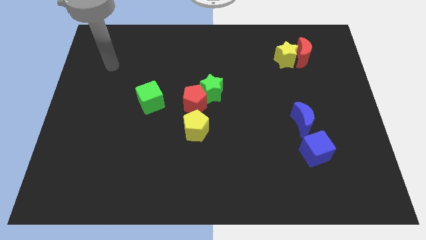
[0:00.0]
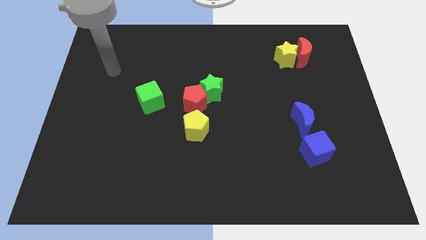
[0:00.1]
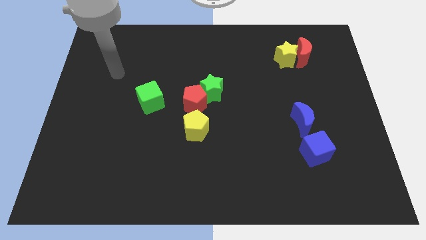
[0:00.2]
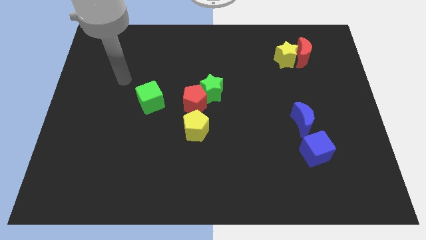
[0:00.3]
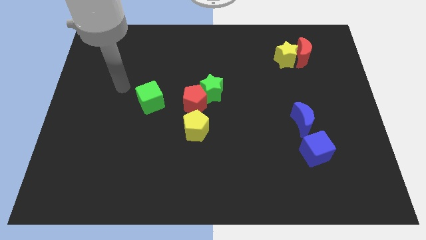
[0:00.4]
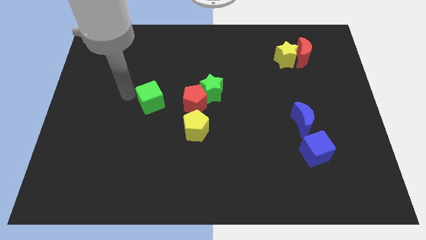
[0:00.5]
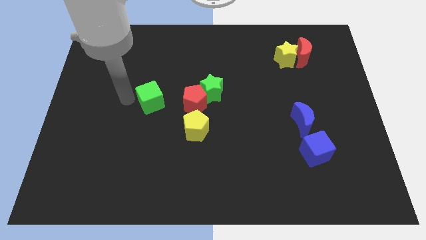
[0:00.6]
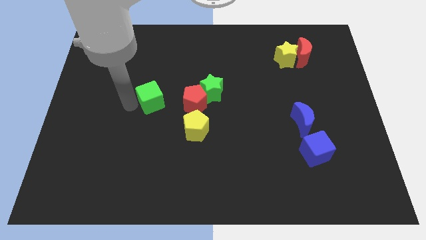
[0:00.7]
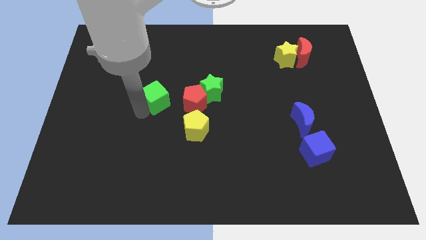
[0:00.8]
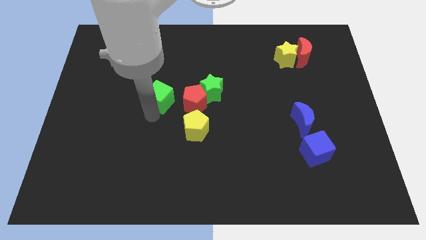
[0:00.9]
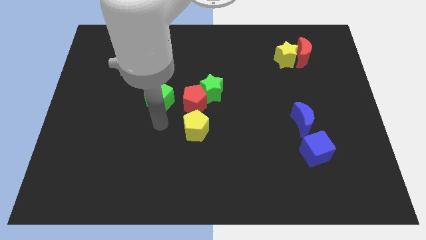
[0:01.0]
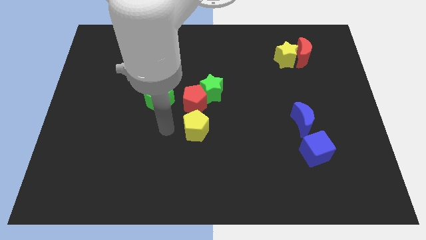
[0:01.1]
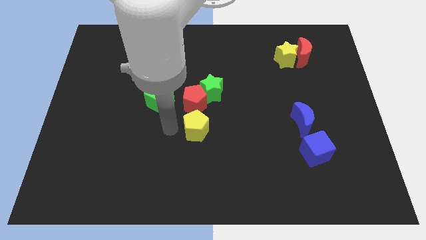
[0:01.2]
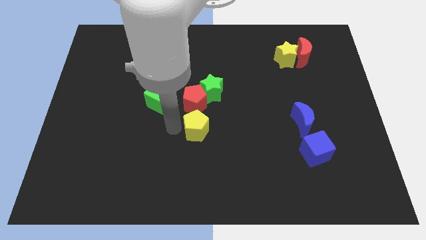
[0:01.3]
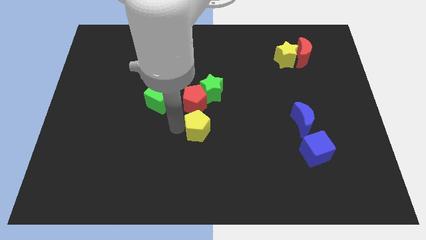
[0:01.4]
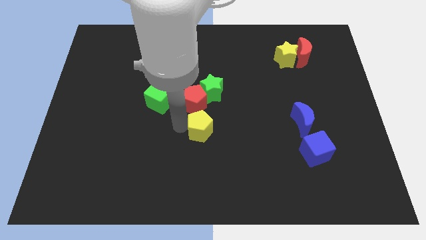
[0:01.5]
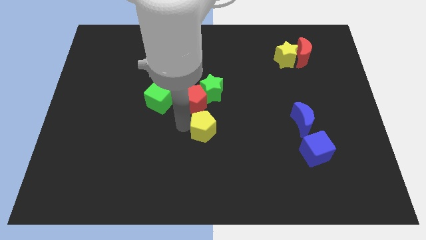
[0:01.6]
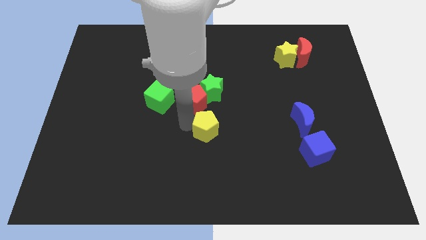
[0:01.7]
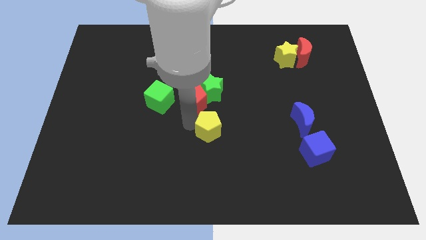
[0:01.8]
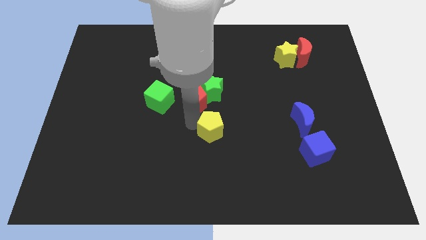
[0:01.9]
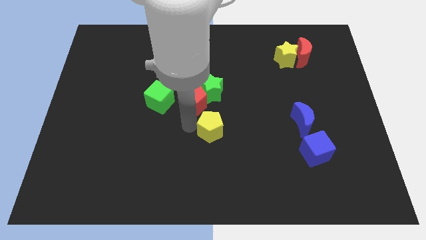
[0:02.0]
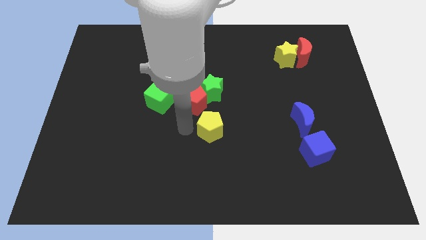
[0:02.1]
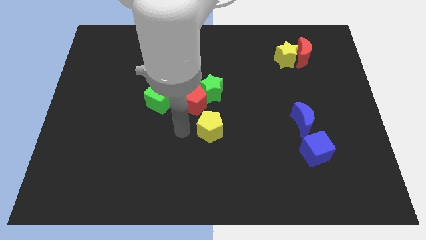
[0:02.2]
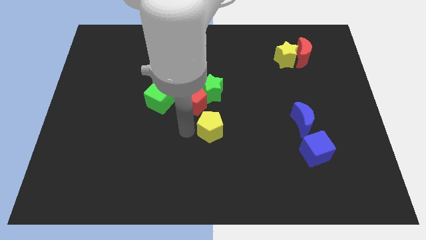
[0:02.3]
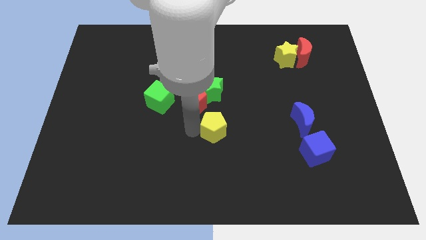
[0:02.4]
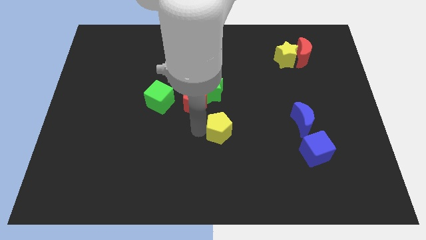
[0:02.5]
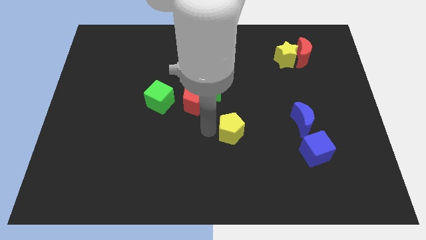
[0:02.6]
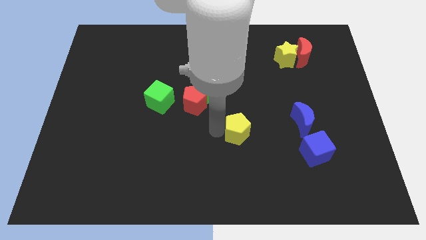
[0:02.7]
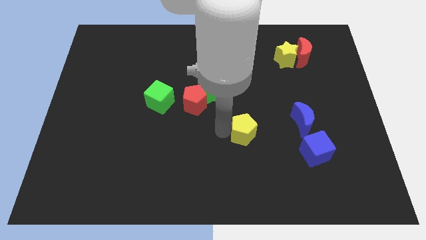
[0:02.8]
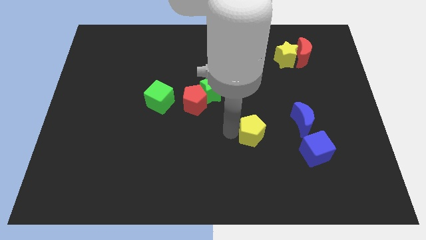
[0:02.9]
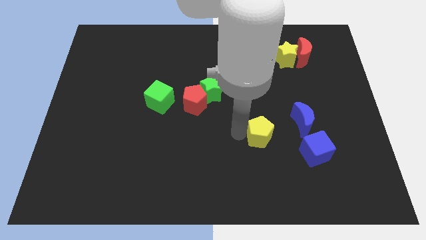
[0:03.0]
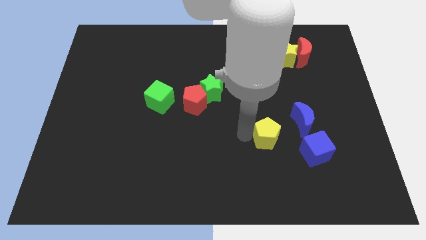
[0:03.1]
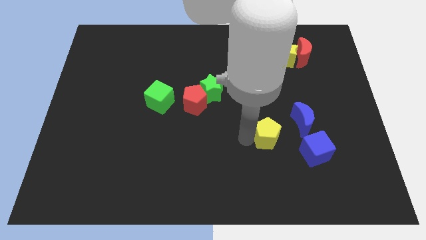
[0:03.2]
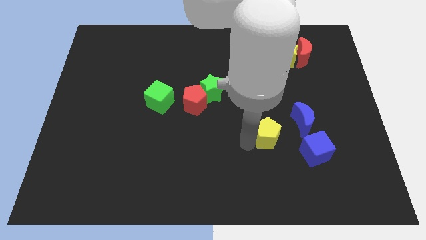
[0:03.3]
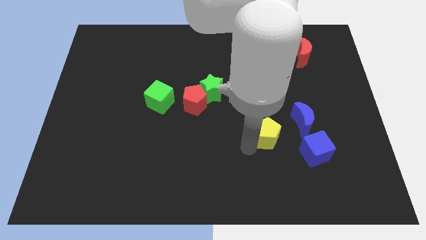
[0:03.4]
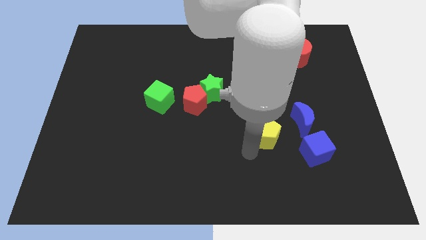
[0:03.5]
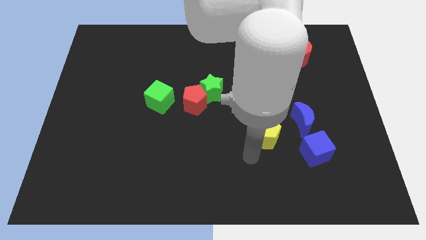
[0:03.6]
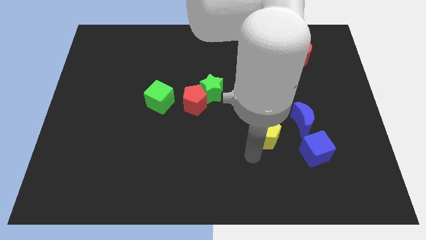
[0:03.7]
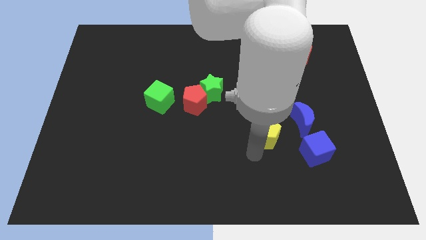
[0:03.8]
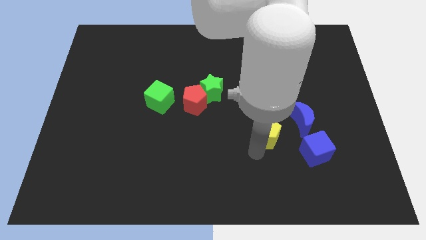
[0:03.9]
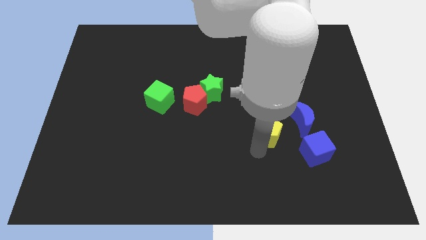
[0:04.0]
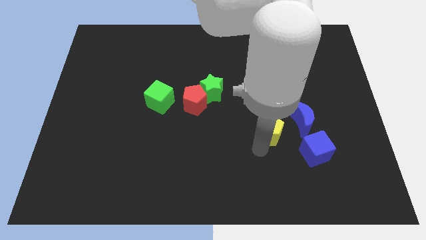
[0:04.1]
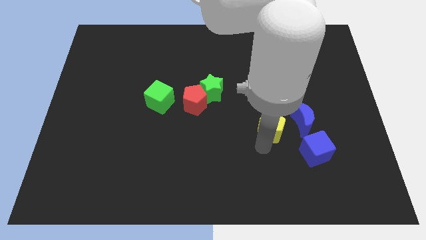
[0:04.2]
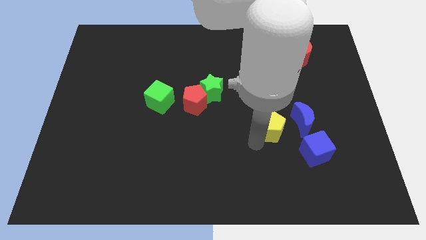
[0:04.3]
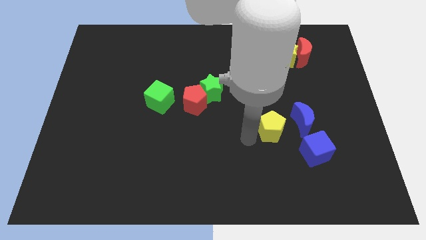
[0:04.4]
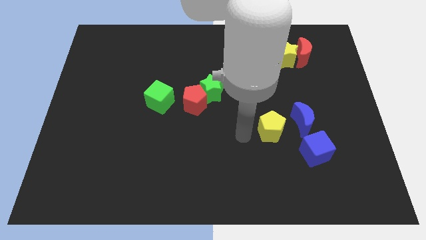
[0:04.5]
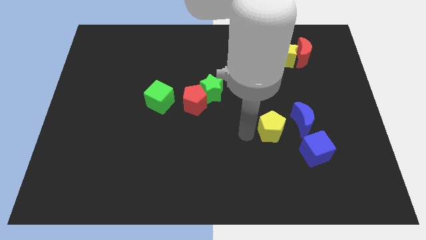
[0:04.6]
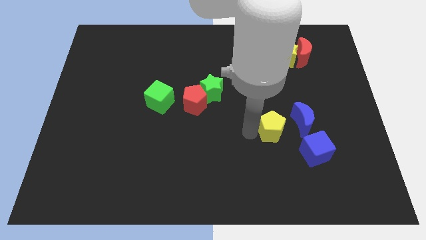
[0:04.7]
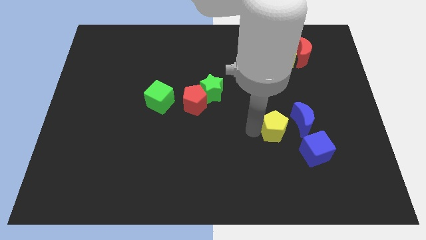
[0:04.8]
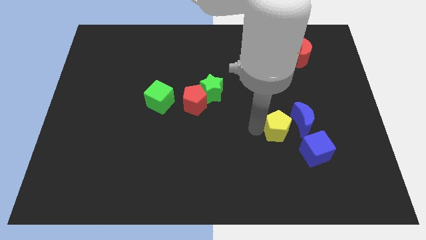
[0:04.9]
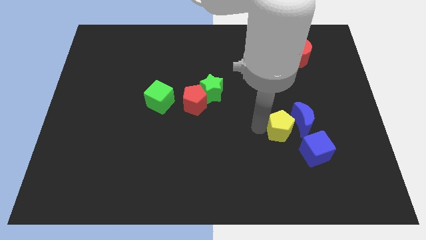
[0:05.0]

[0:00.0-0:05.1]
put the yellow pentagon next to the blue moon

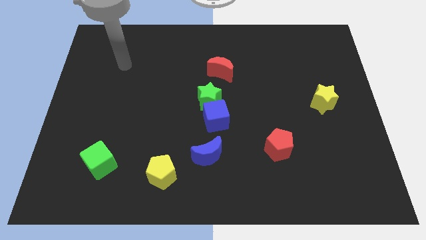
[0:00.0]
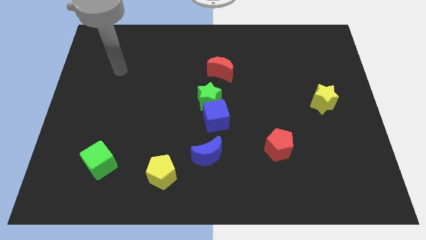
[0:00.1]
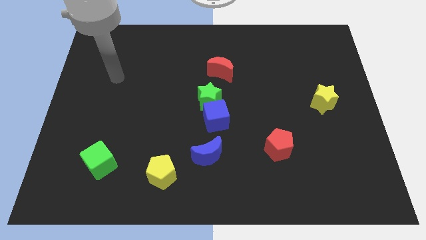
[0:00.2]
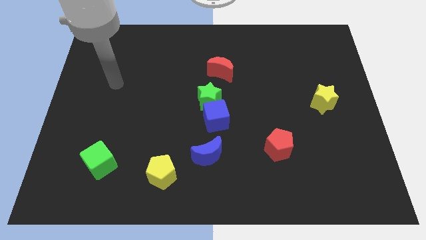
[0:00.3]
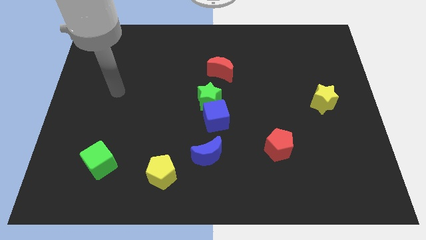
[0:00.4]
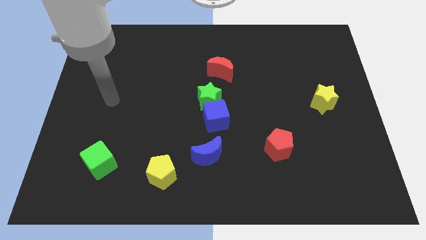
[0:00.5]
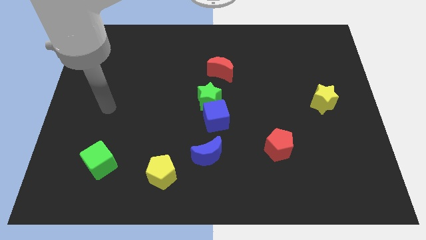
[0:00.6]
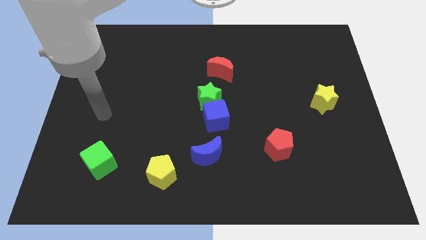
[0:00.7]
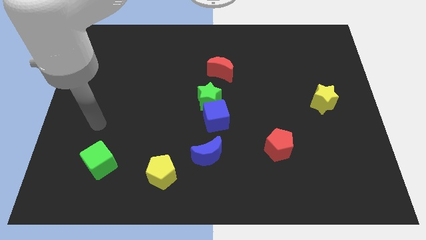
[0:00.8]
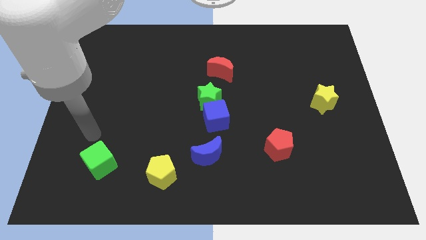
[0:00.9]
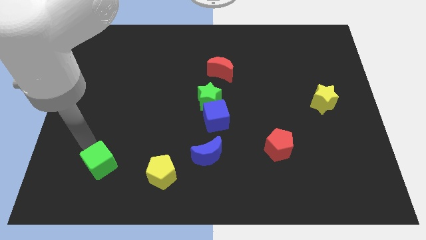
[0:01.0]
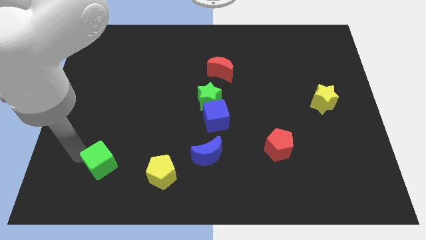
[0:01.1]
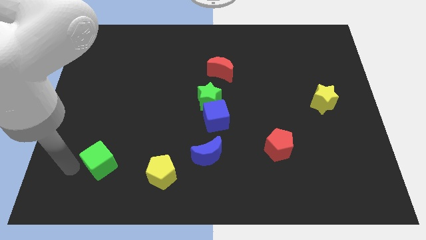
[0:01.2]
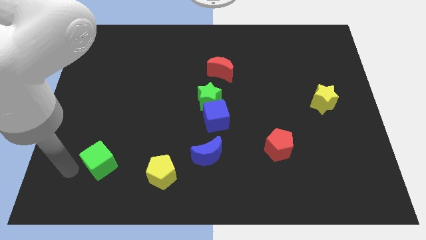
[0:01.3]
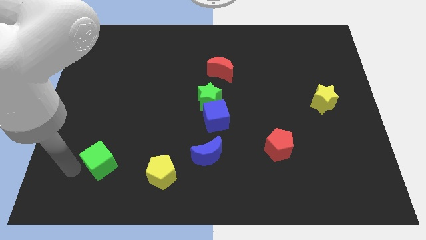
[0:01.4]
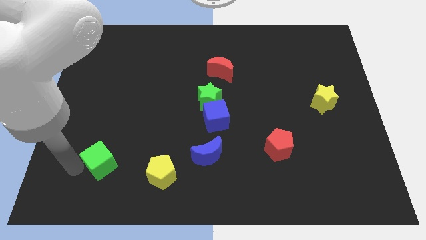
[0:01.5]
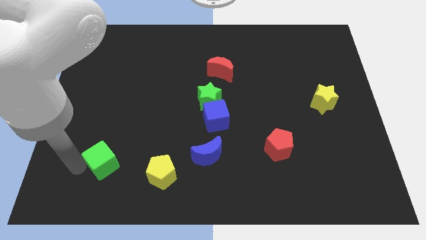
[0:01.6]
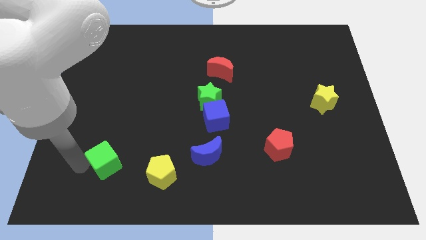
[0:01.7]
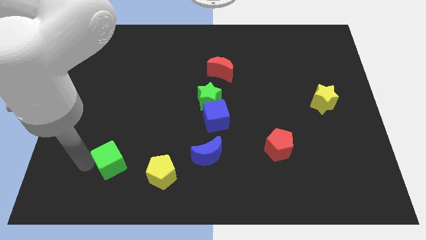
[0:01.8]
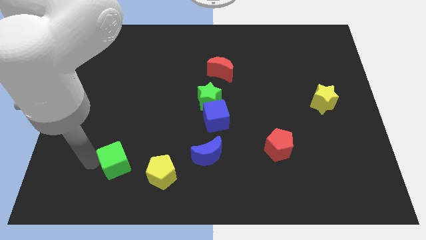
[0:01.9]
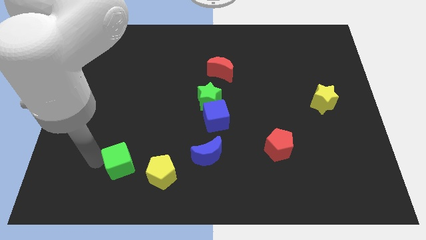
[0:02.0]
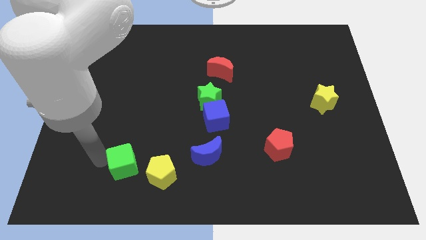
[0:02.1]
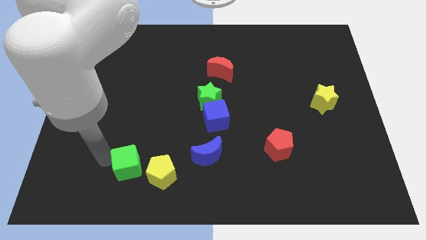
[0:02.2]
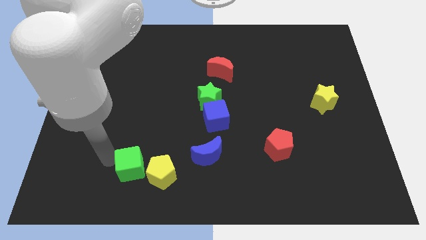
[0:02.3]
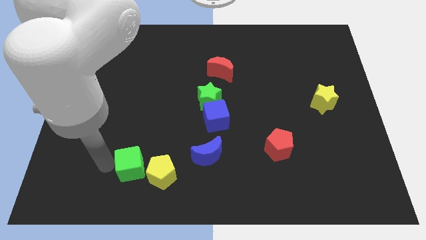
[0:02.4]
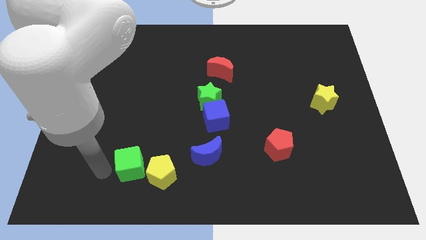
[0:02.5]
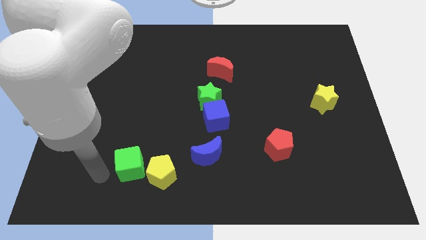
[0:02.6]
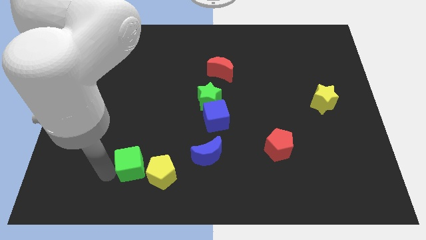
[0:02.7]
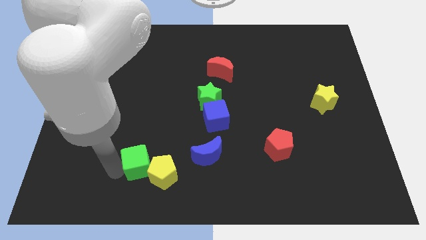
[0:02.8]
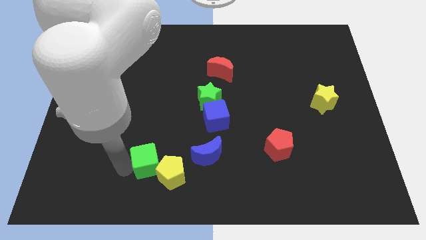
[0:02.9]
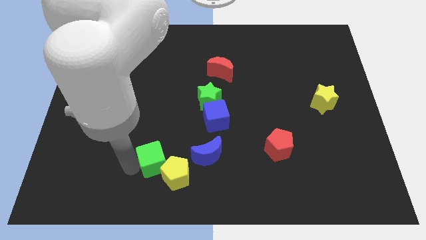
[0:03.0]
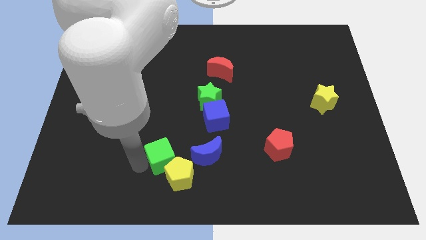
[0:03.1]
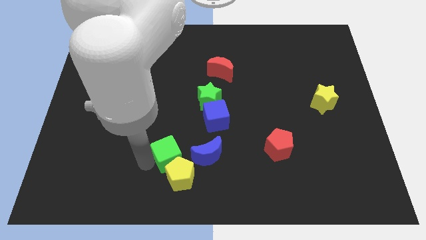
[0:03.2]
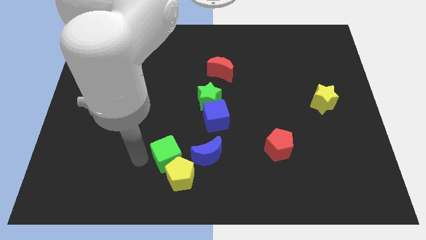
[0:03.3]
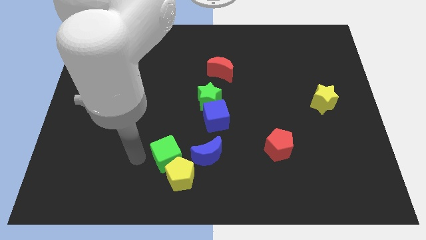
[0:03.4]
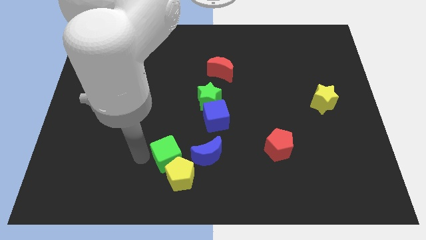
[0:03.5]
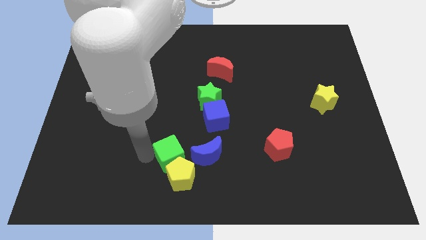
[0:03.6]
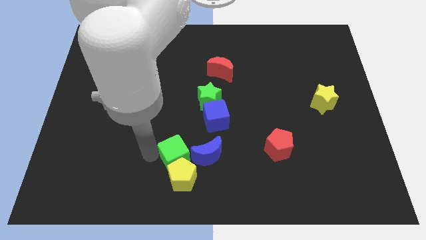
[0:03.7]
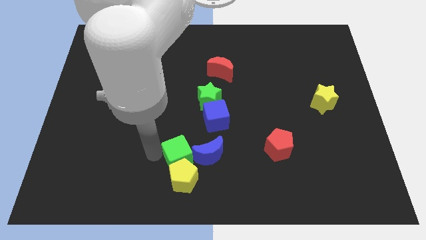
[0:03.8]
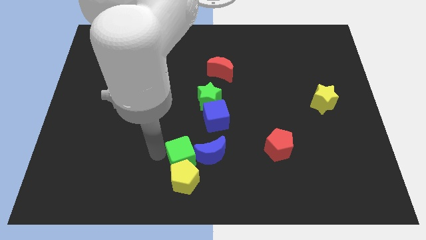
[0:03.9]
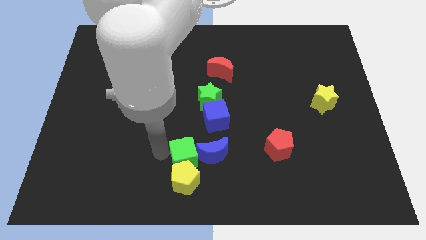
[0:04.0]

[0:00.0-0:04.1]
put the green cube close to the blue moon
